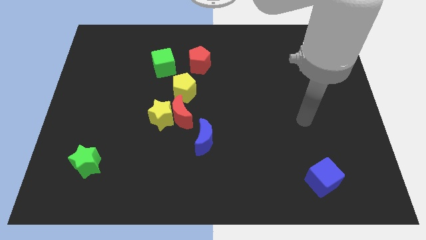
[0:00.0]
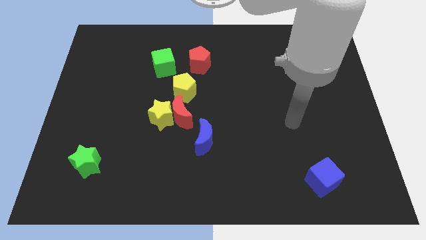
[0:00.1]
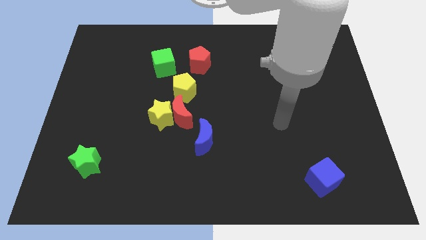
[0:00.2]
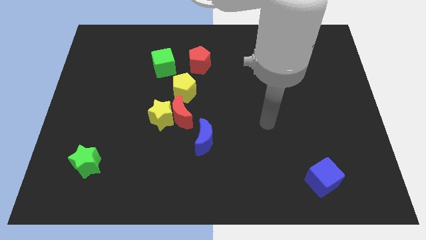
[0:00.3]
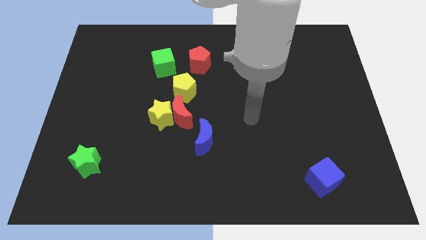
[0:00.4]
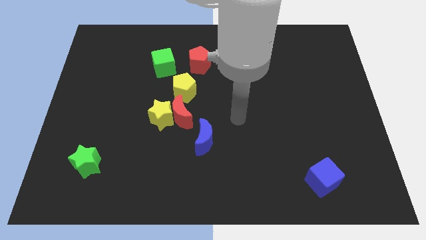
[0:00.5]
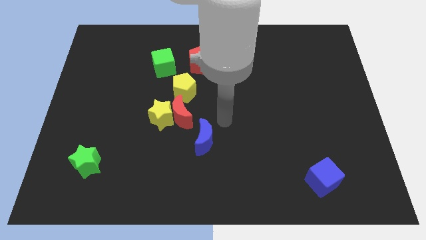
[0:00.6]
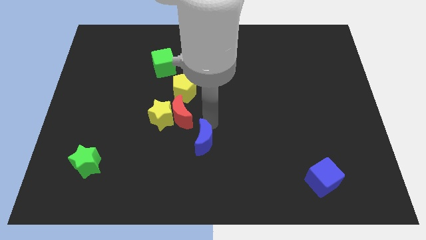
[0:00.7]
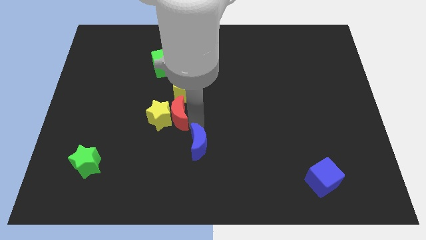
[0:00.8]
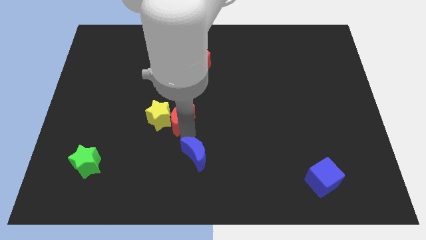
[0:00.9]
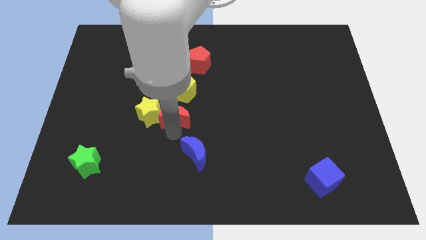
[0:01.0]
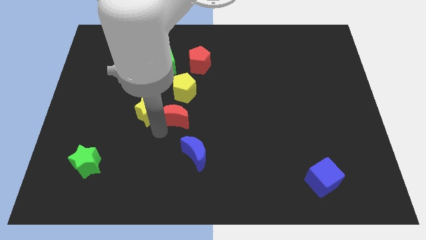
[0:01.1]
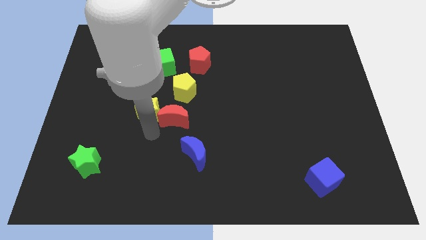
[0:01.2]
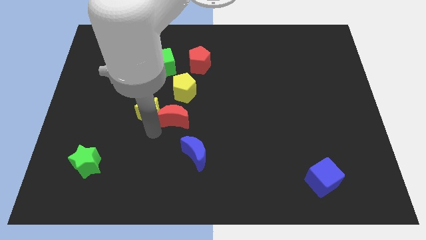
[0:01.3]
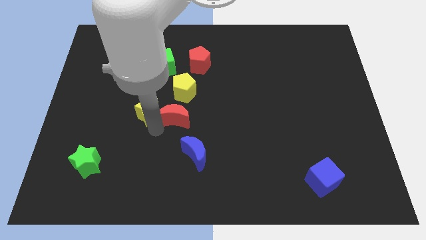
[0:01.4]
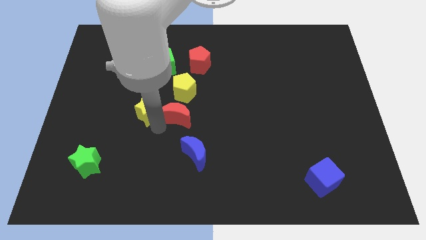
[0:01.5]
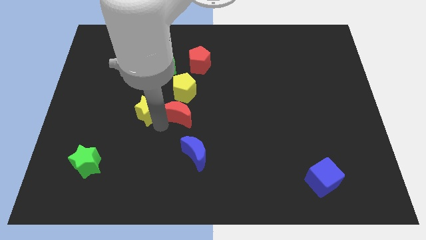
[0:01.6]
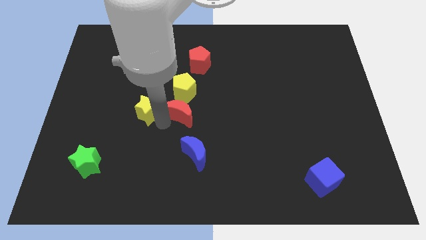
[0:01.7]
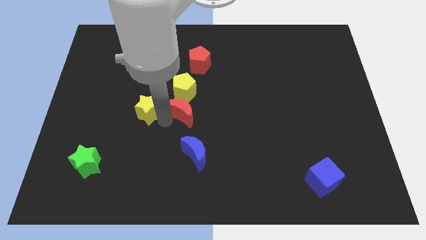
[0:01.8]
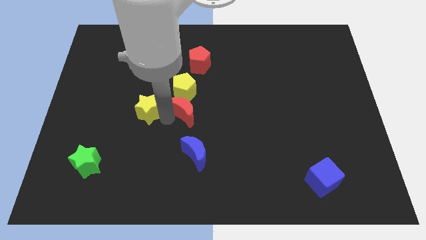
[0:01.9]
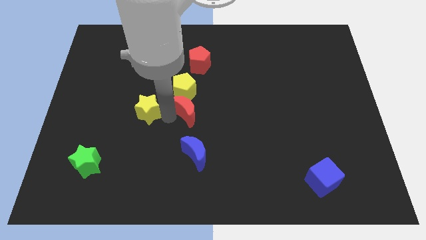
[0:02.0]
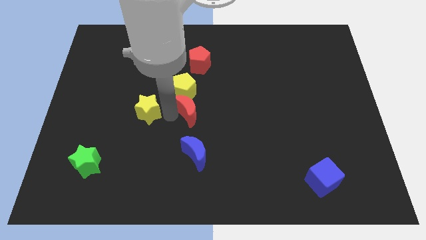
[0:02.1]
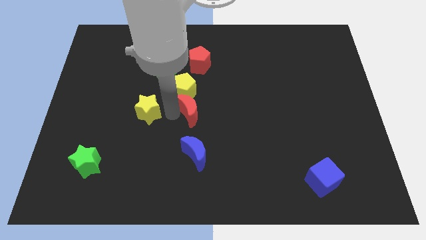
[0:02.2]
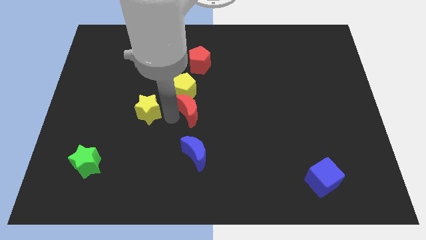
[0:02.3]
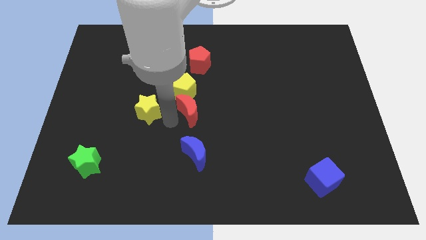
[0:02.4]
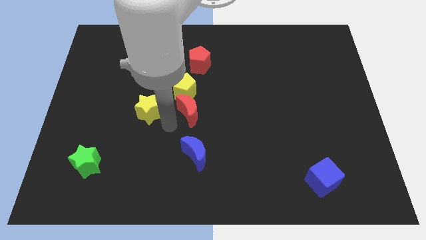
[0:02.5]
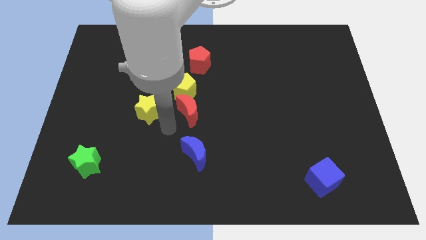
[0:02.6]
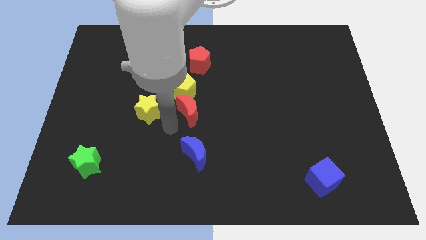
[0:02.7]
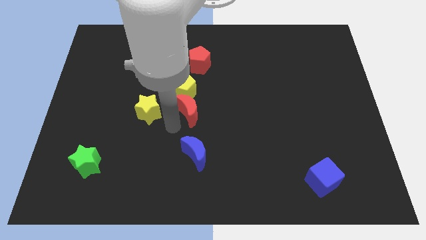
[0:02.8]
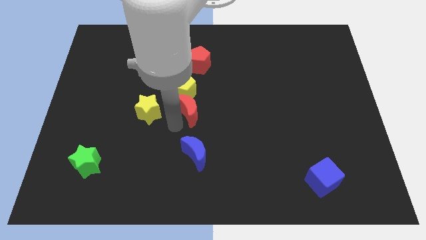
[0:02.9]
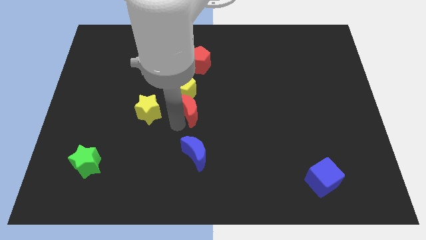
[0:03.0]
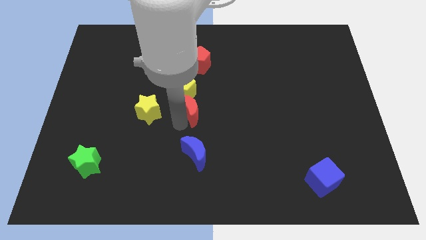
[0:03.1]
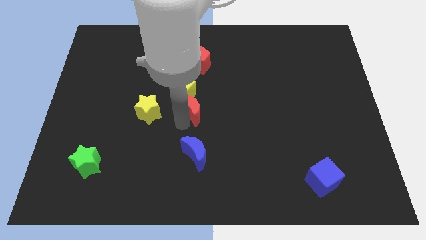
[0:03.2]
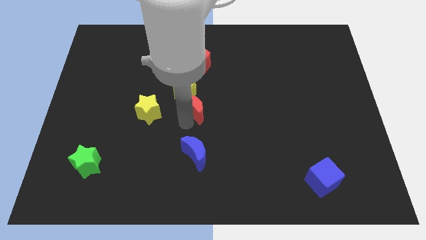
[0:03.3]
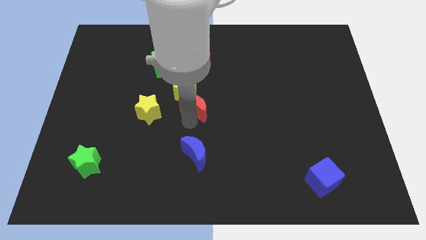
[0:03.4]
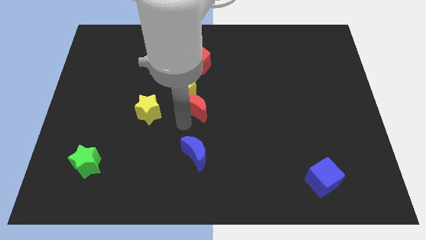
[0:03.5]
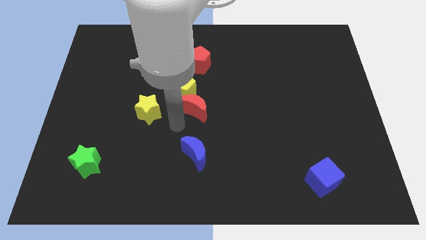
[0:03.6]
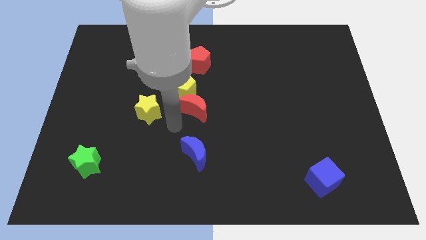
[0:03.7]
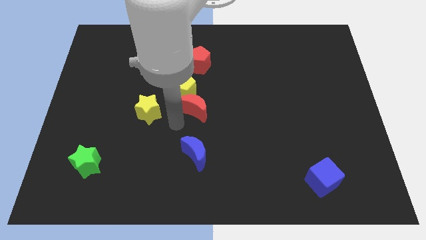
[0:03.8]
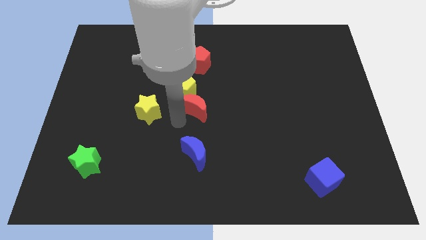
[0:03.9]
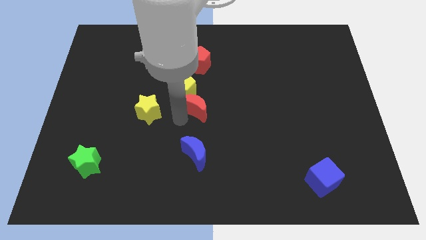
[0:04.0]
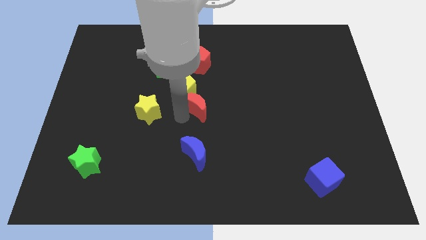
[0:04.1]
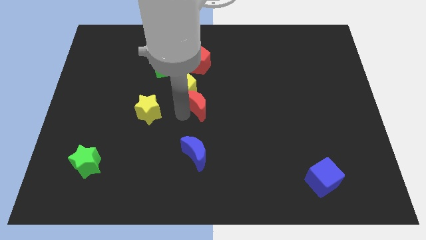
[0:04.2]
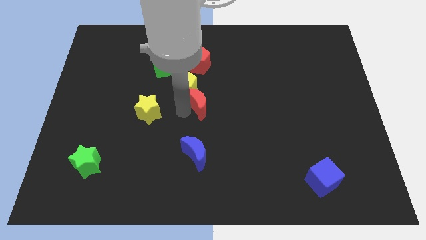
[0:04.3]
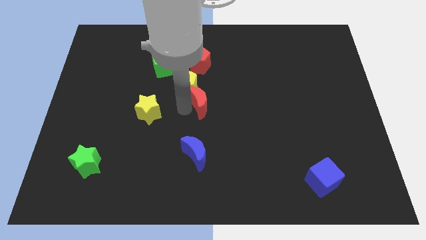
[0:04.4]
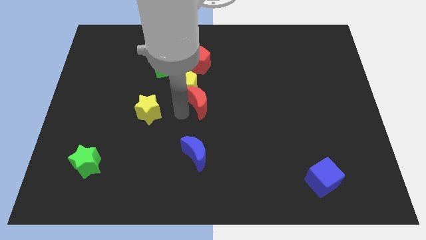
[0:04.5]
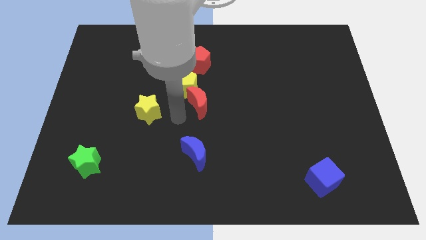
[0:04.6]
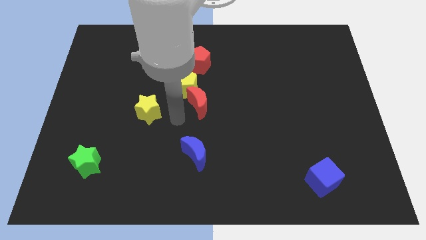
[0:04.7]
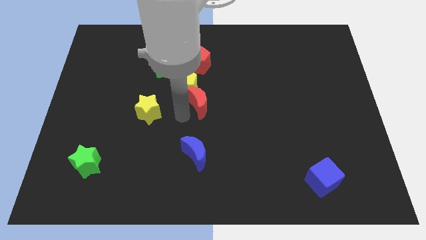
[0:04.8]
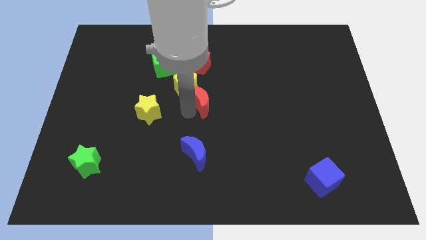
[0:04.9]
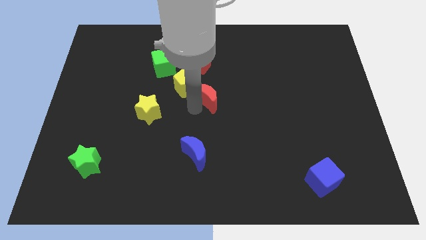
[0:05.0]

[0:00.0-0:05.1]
move the red moon upwards and right a bit

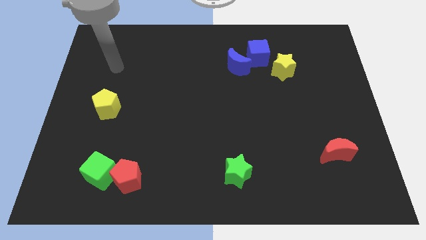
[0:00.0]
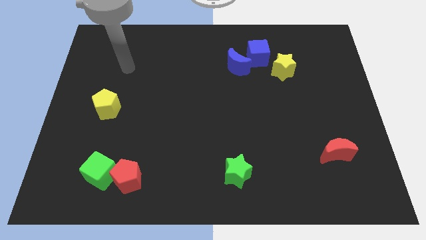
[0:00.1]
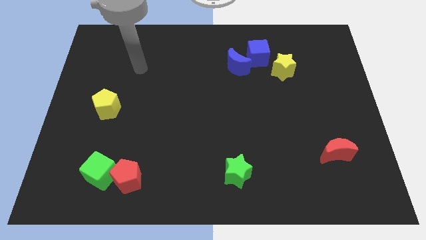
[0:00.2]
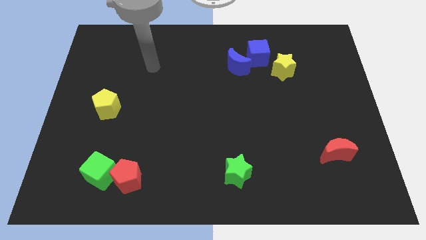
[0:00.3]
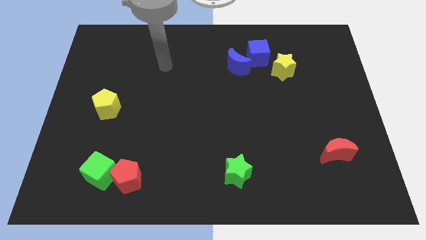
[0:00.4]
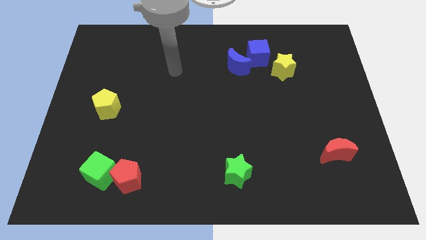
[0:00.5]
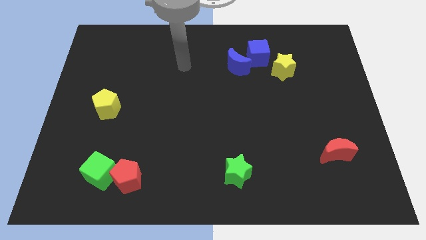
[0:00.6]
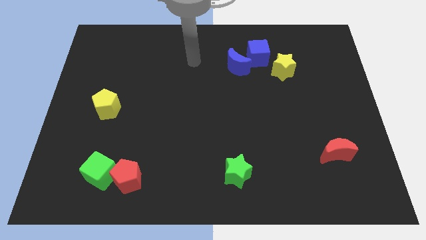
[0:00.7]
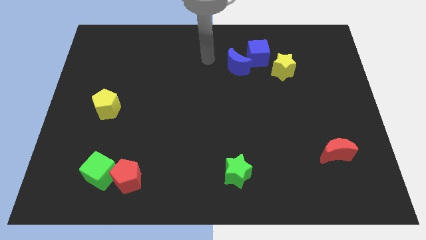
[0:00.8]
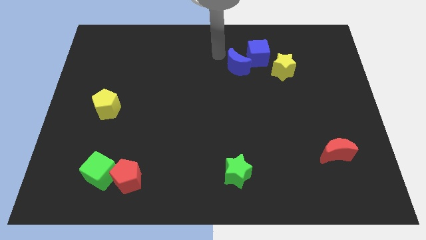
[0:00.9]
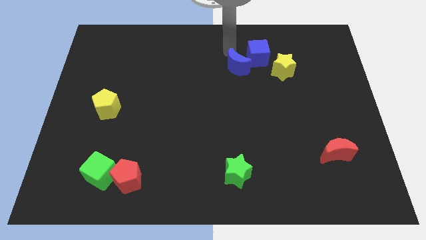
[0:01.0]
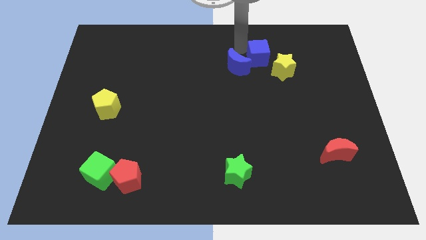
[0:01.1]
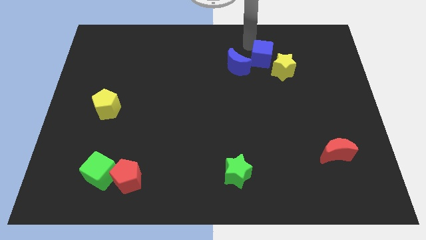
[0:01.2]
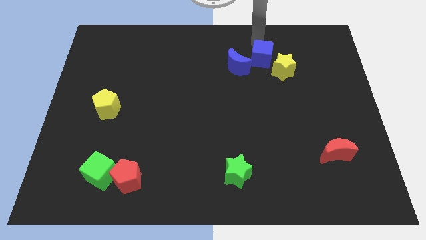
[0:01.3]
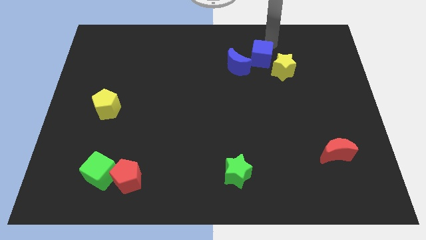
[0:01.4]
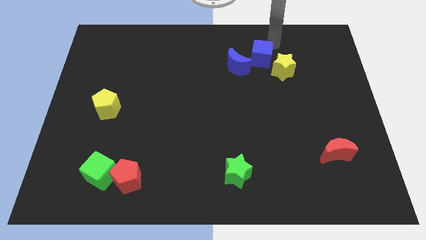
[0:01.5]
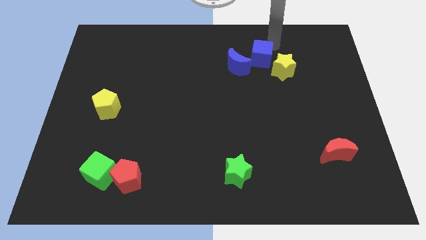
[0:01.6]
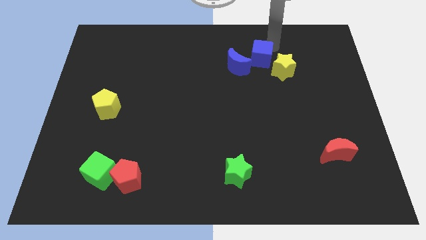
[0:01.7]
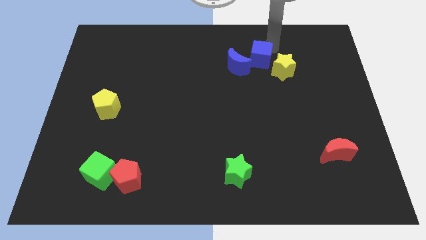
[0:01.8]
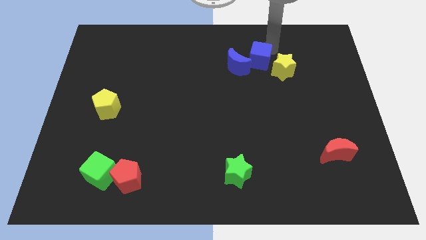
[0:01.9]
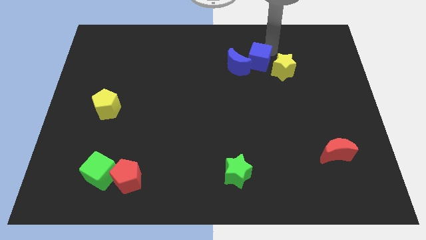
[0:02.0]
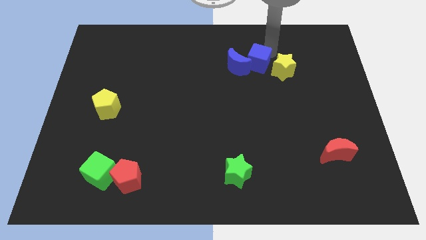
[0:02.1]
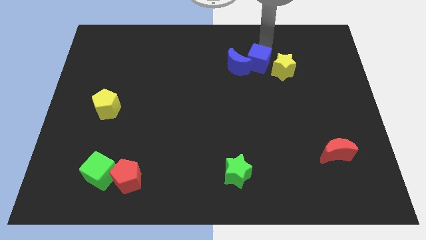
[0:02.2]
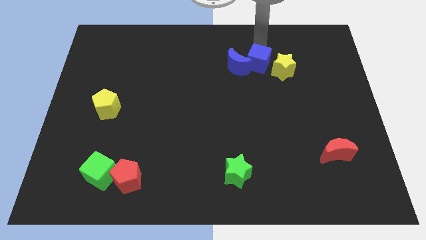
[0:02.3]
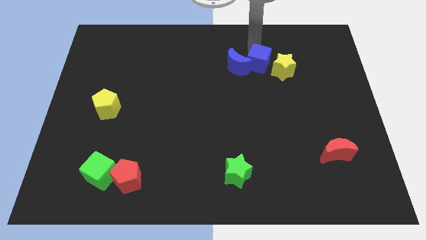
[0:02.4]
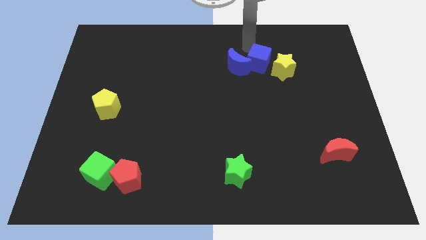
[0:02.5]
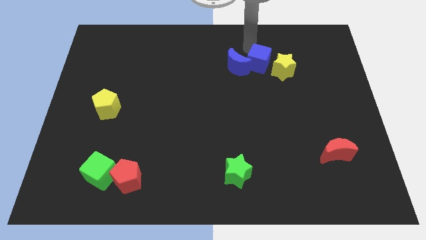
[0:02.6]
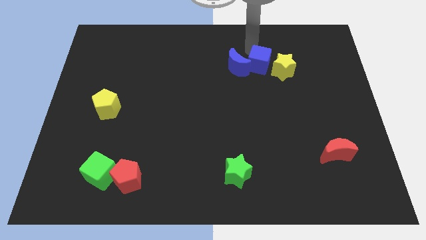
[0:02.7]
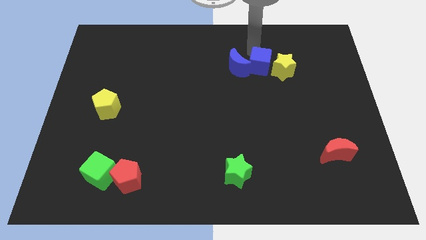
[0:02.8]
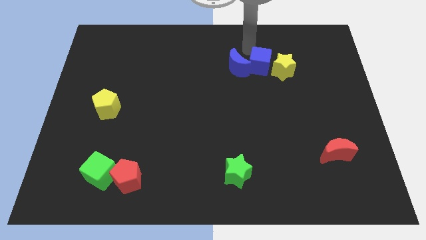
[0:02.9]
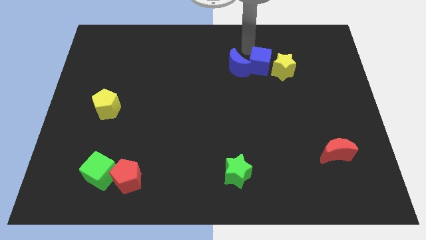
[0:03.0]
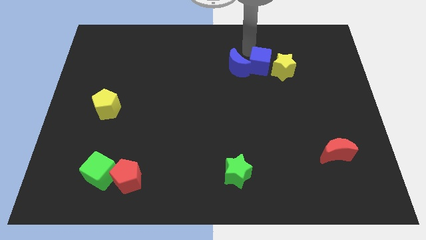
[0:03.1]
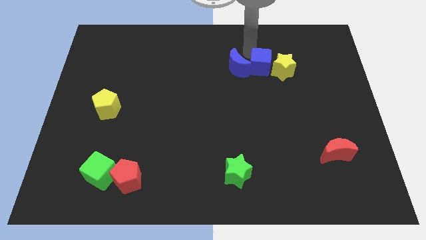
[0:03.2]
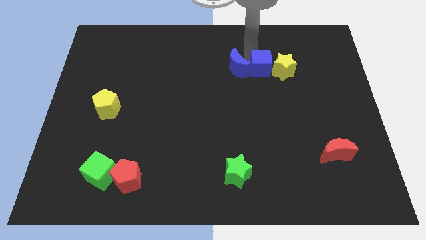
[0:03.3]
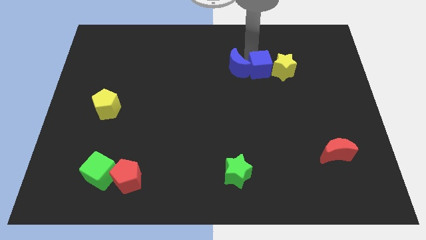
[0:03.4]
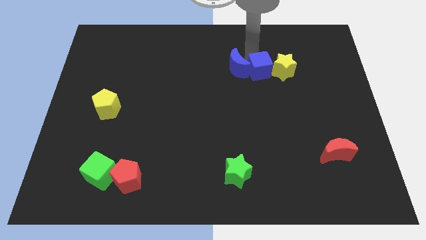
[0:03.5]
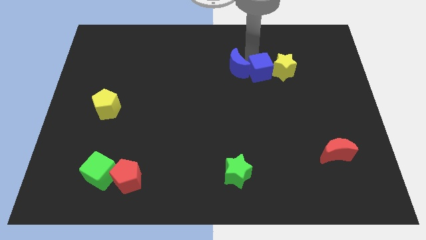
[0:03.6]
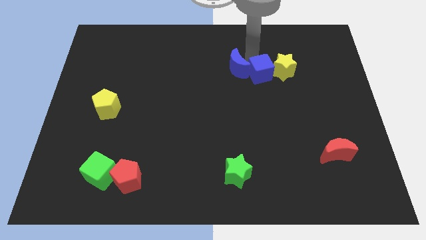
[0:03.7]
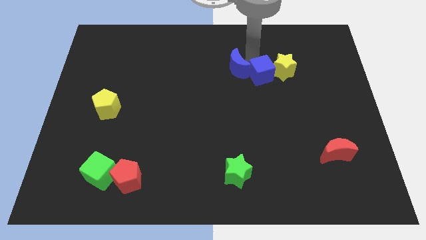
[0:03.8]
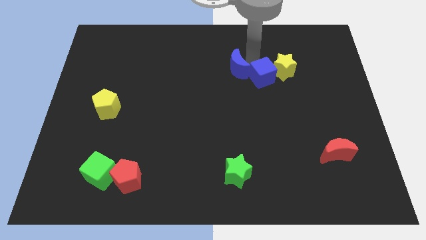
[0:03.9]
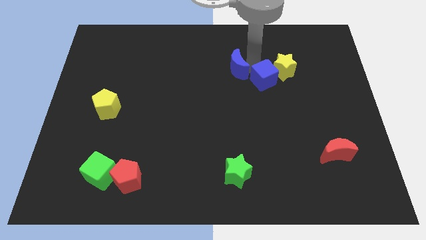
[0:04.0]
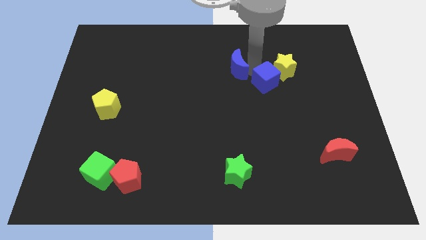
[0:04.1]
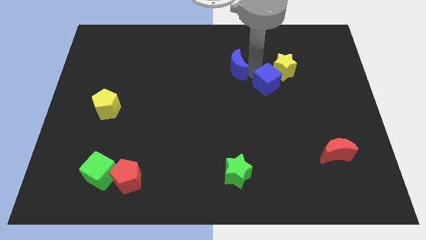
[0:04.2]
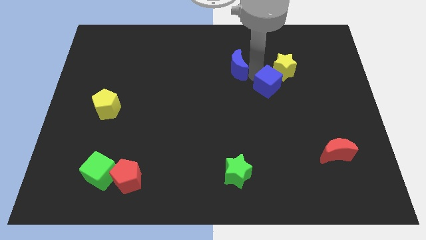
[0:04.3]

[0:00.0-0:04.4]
slightly slide the blue cube down and right
